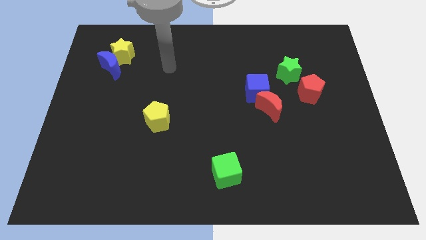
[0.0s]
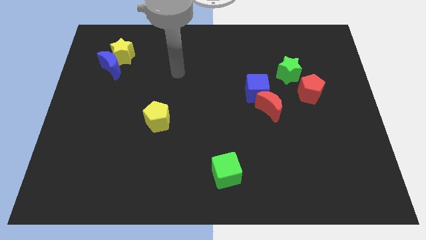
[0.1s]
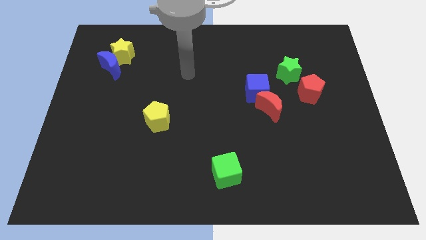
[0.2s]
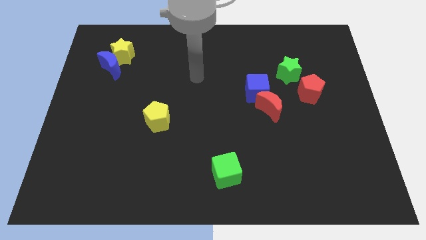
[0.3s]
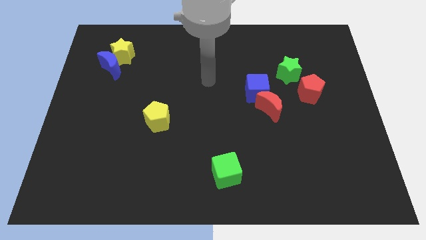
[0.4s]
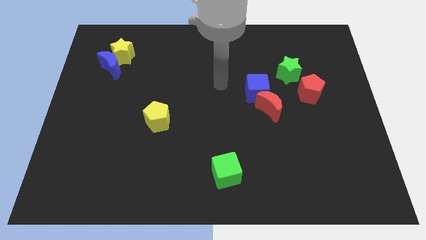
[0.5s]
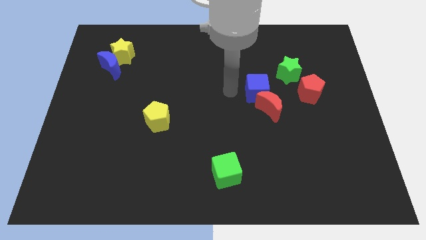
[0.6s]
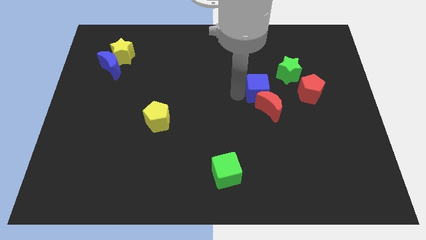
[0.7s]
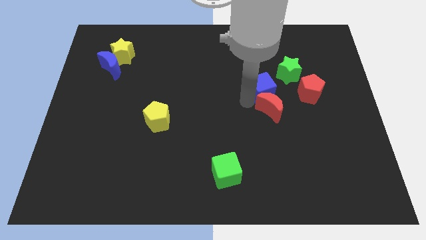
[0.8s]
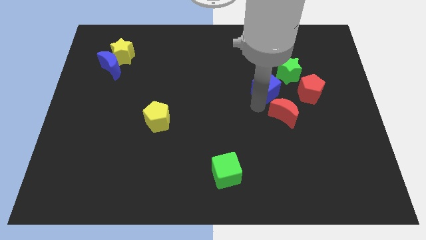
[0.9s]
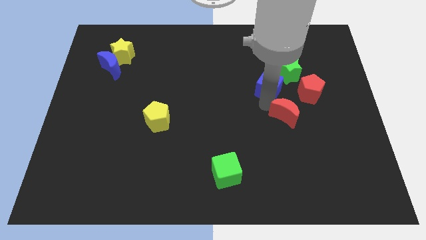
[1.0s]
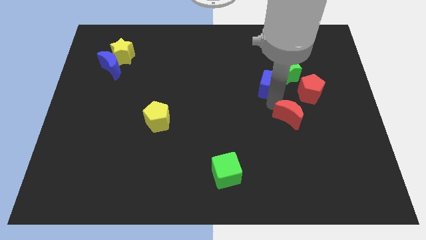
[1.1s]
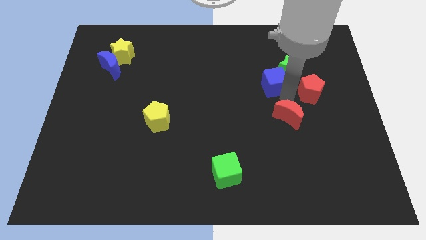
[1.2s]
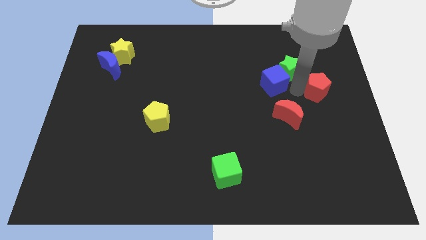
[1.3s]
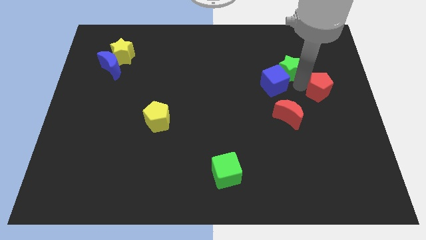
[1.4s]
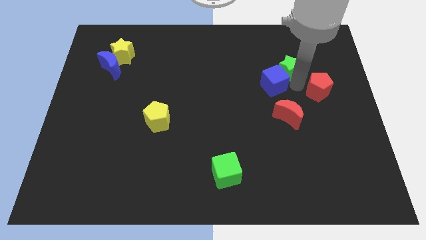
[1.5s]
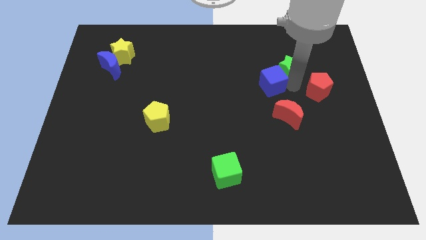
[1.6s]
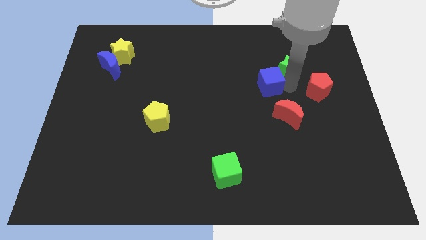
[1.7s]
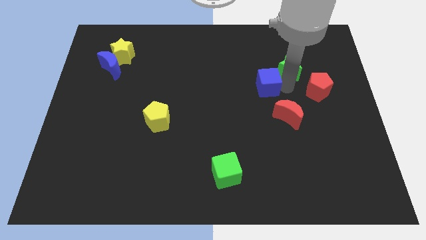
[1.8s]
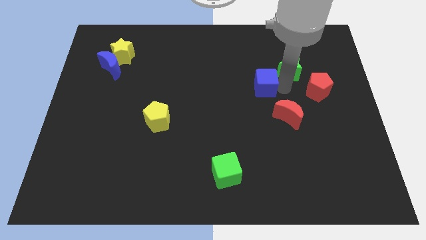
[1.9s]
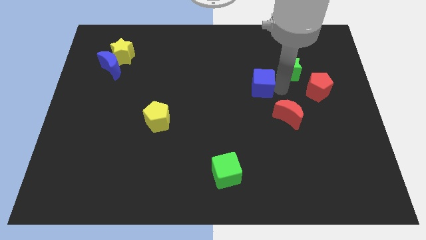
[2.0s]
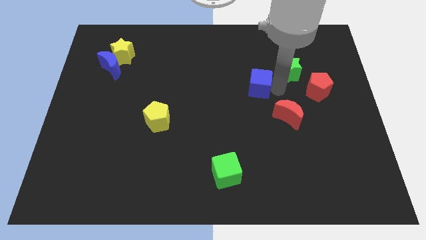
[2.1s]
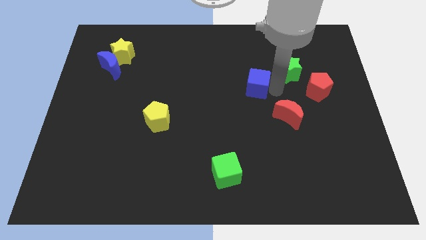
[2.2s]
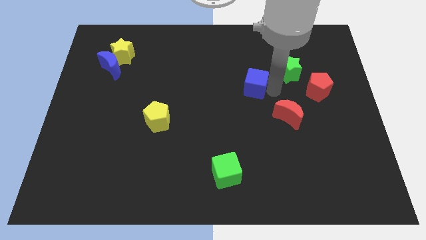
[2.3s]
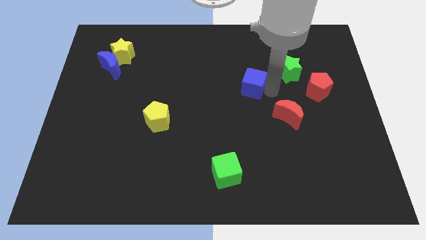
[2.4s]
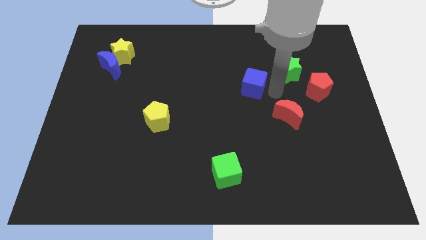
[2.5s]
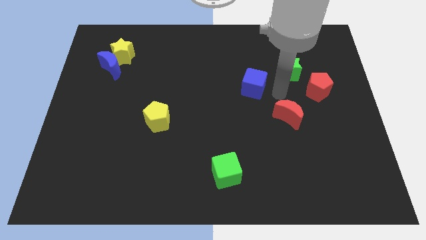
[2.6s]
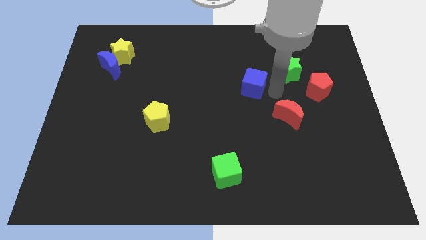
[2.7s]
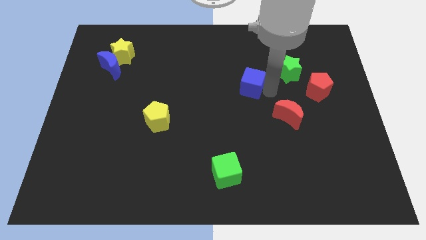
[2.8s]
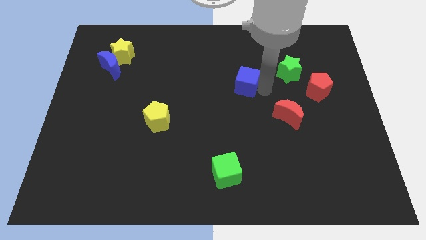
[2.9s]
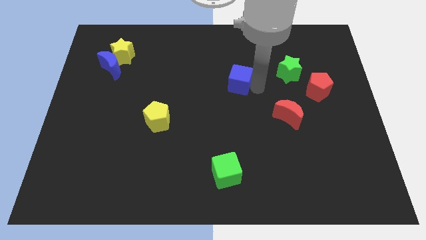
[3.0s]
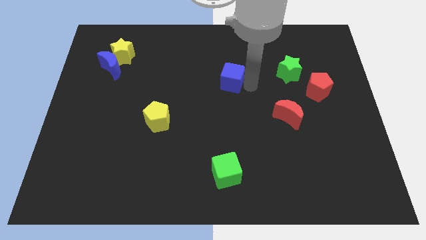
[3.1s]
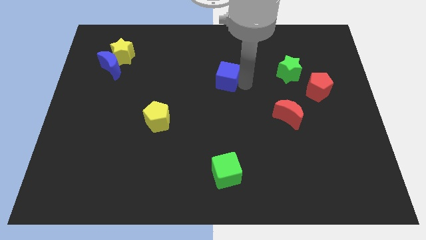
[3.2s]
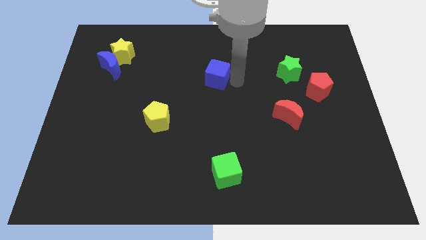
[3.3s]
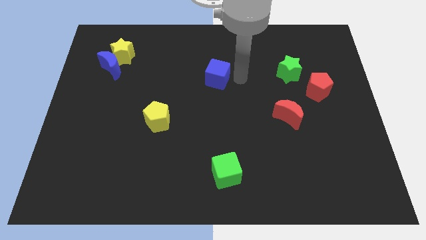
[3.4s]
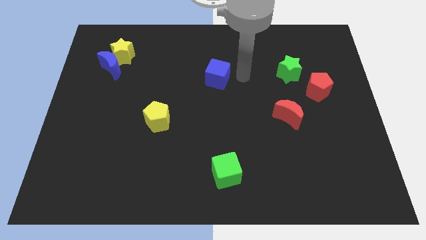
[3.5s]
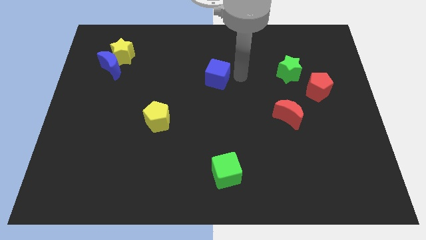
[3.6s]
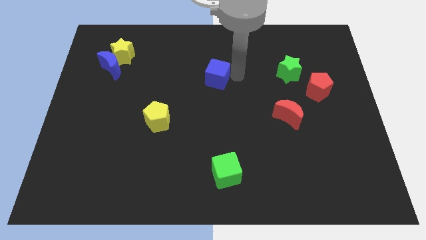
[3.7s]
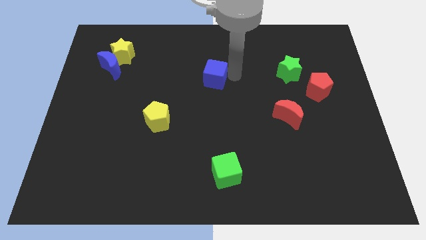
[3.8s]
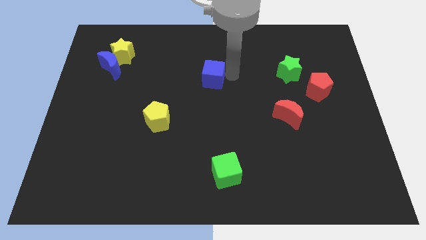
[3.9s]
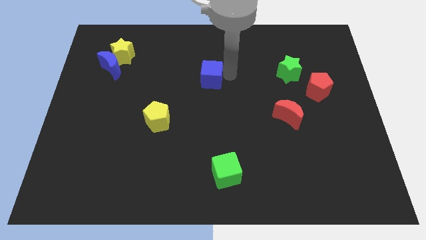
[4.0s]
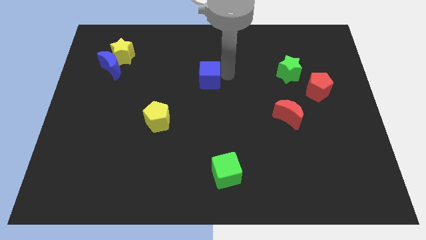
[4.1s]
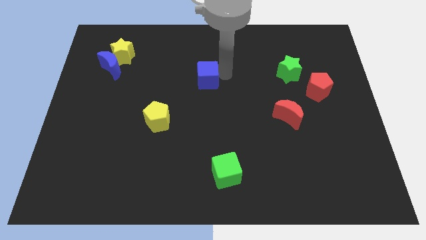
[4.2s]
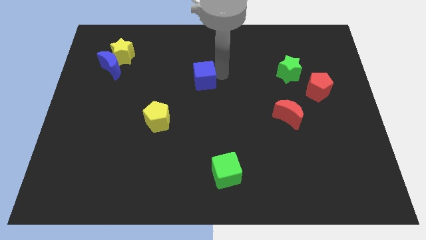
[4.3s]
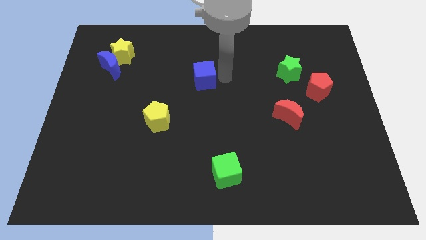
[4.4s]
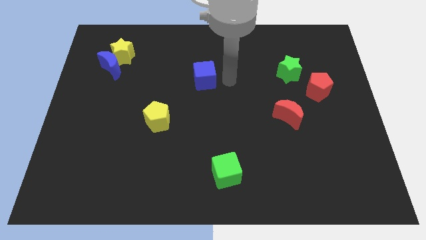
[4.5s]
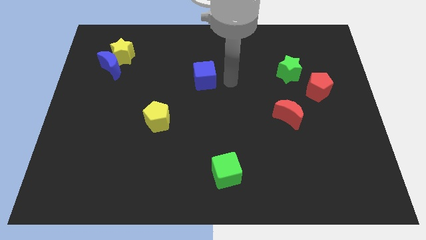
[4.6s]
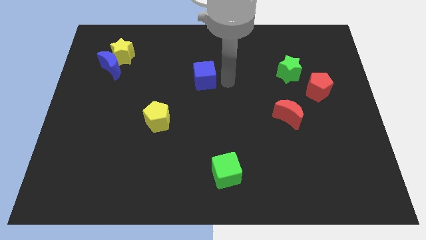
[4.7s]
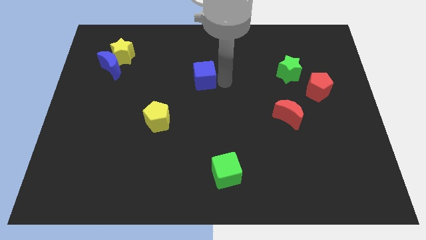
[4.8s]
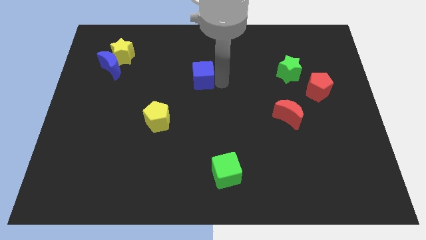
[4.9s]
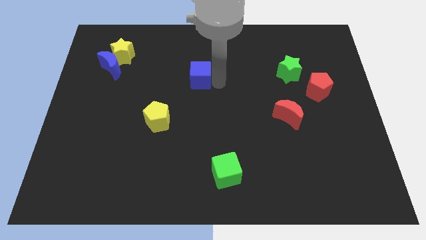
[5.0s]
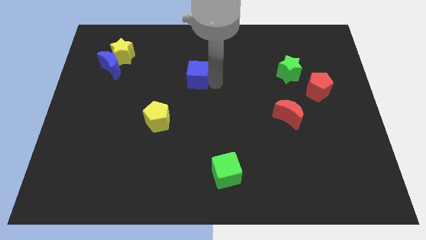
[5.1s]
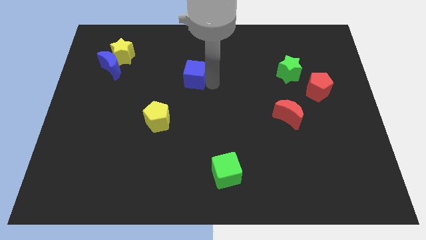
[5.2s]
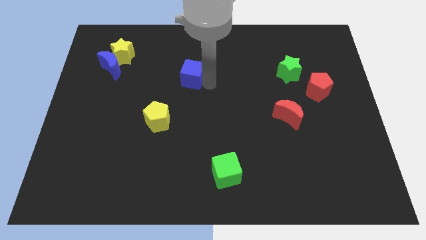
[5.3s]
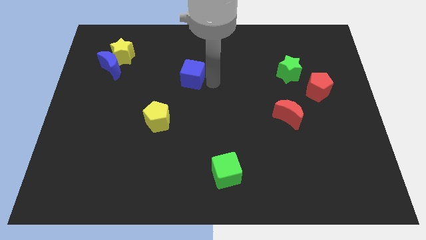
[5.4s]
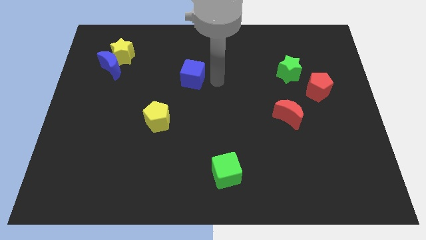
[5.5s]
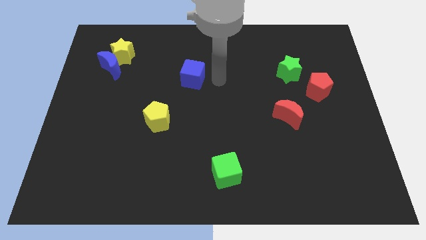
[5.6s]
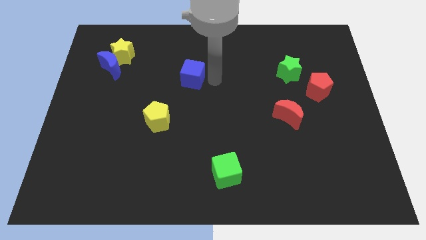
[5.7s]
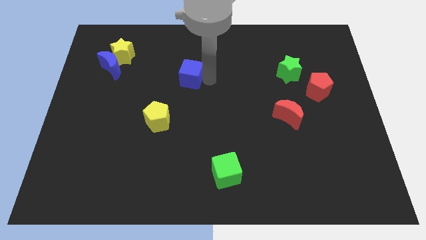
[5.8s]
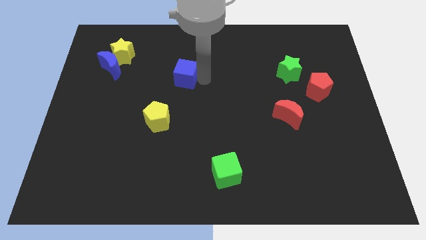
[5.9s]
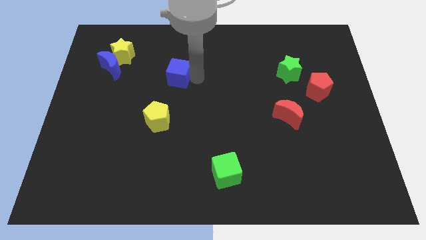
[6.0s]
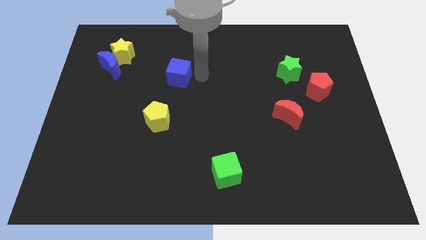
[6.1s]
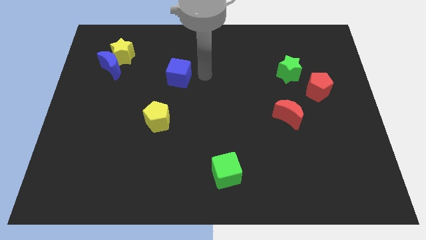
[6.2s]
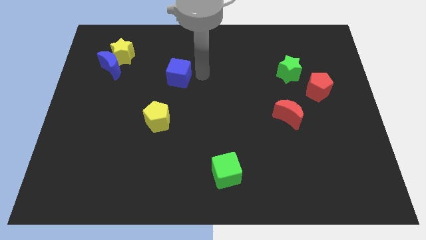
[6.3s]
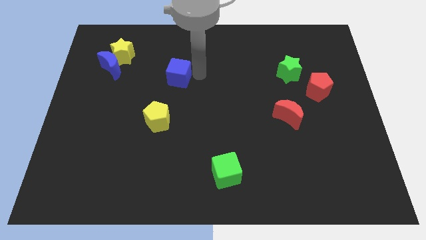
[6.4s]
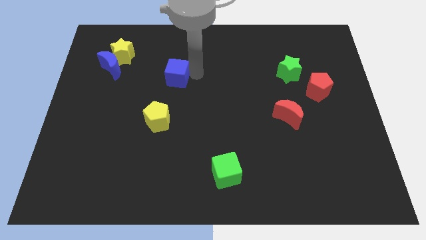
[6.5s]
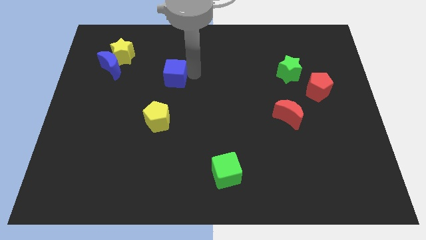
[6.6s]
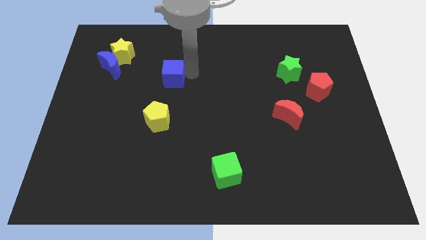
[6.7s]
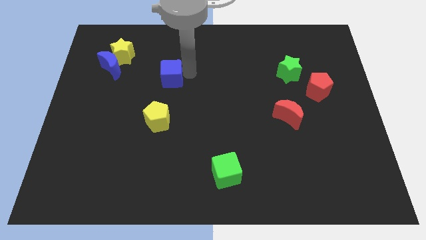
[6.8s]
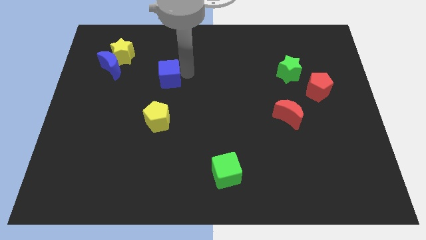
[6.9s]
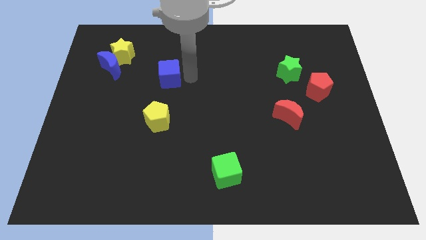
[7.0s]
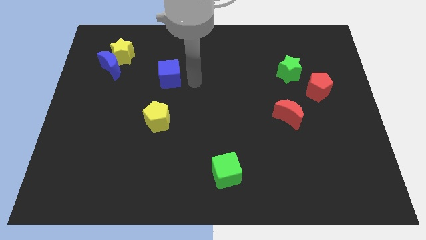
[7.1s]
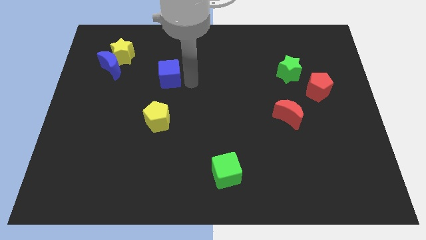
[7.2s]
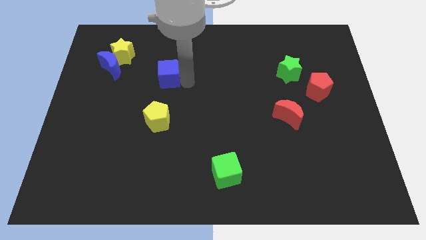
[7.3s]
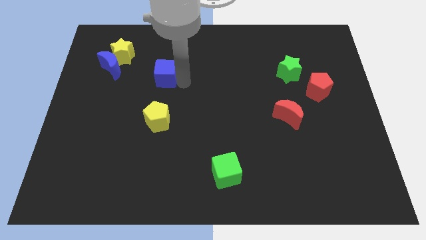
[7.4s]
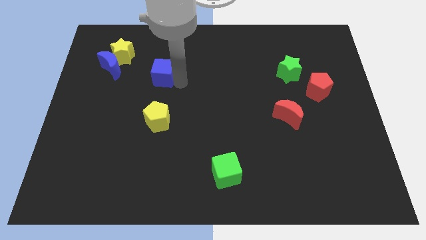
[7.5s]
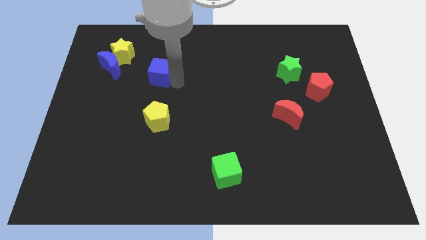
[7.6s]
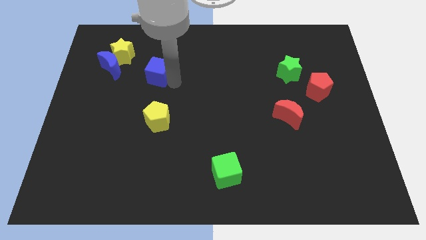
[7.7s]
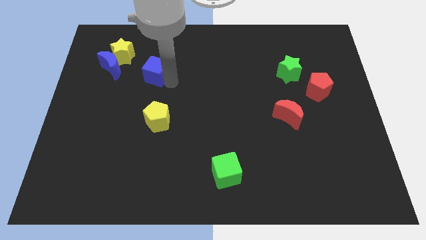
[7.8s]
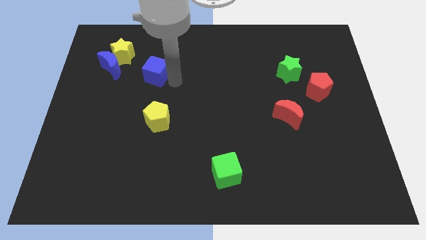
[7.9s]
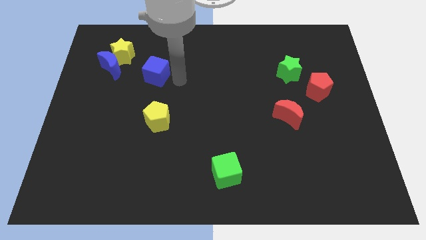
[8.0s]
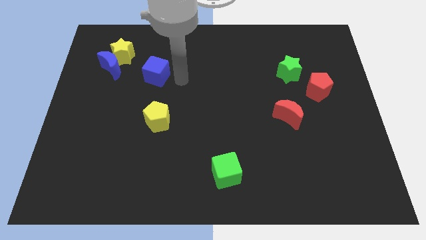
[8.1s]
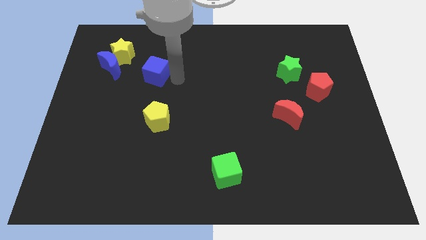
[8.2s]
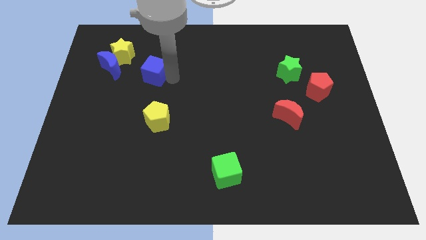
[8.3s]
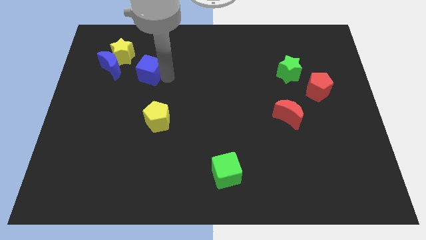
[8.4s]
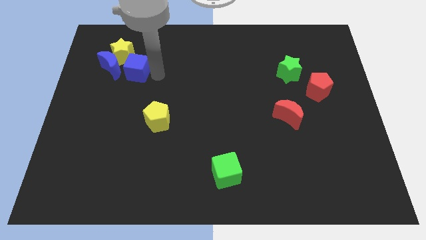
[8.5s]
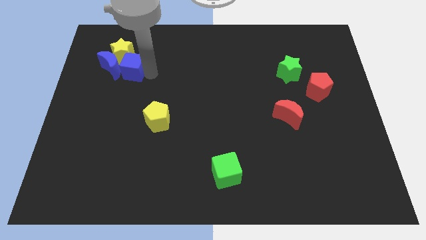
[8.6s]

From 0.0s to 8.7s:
slide the blue cube to the blue moon
